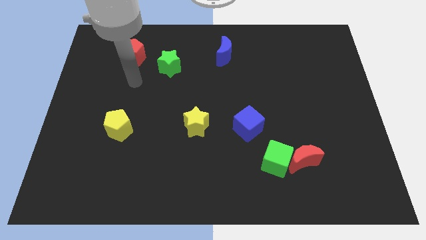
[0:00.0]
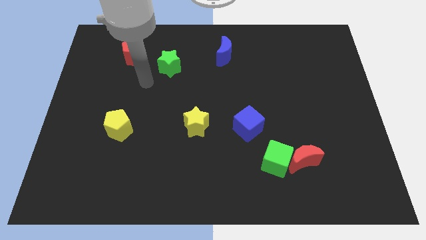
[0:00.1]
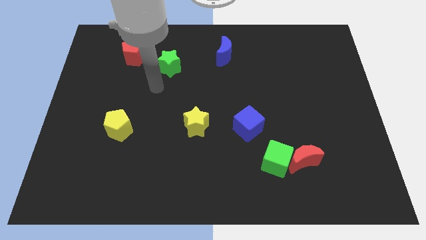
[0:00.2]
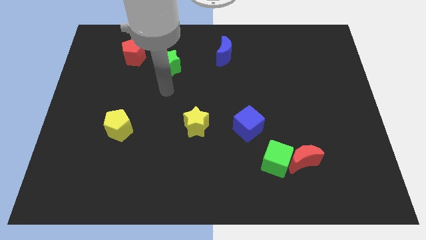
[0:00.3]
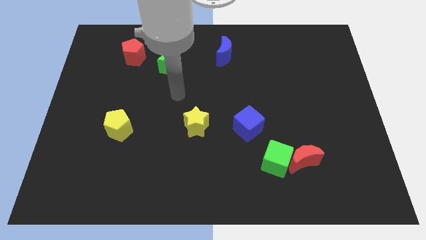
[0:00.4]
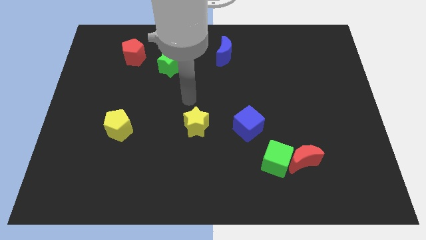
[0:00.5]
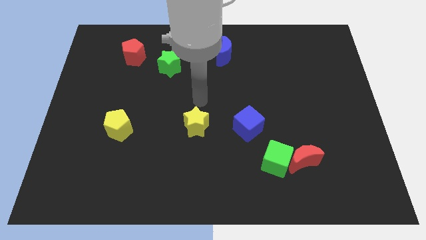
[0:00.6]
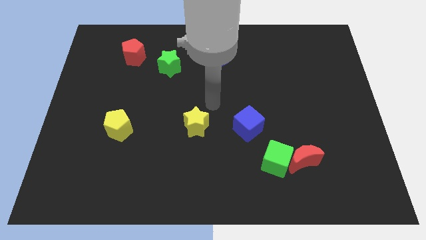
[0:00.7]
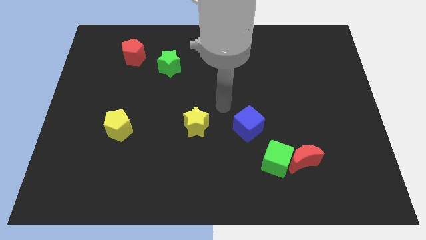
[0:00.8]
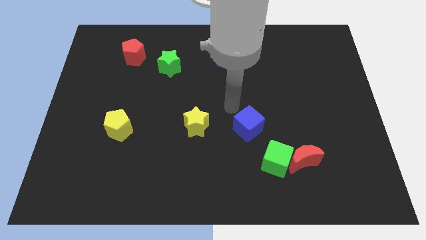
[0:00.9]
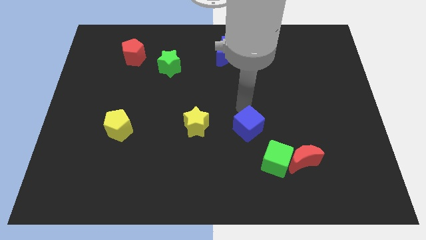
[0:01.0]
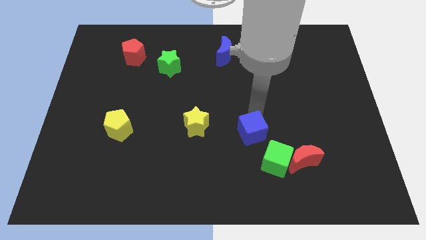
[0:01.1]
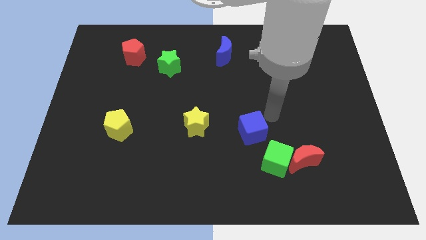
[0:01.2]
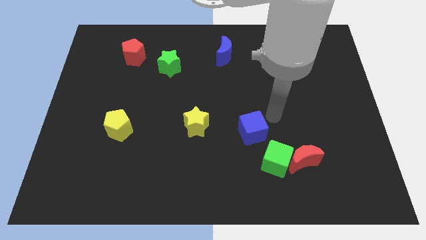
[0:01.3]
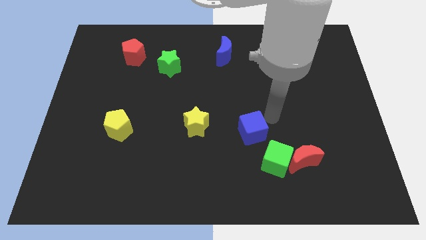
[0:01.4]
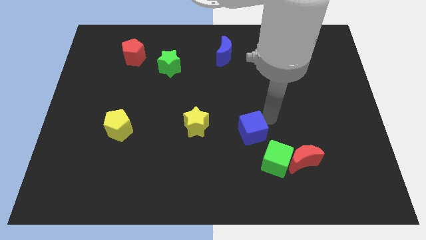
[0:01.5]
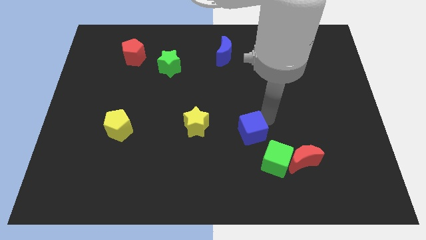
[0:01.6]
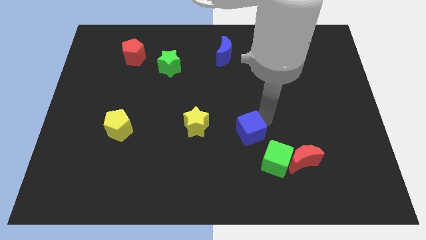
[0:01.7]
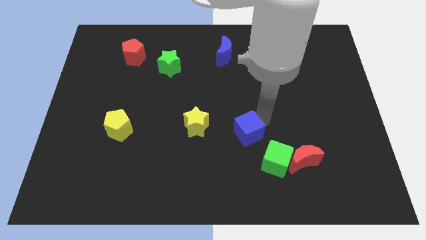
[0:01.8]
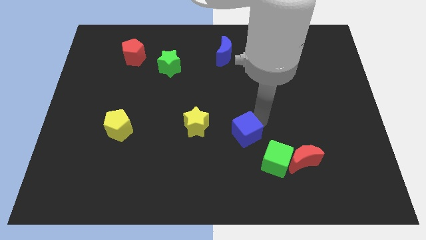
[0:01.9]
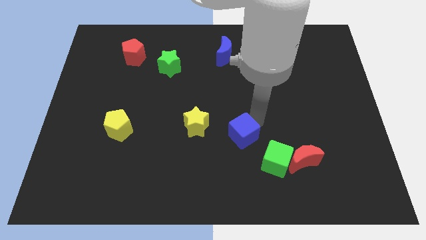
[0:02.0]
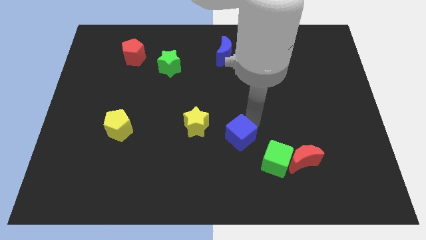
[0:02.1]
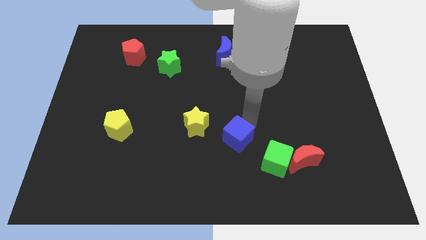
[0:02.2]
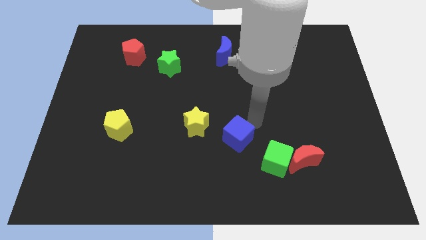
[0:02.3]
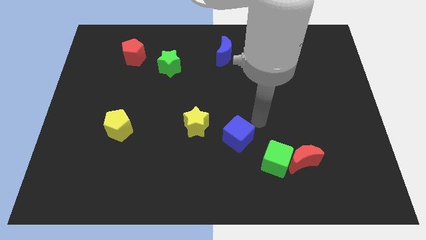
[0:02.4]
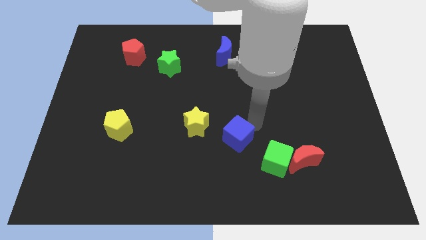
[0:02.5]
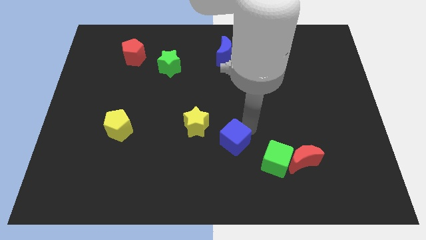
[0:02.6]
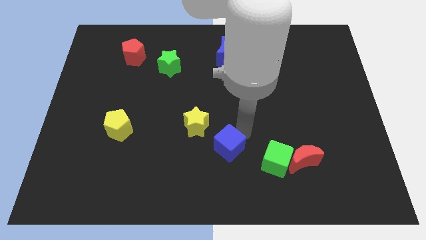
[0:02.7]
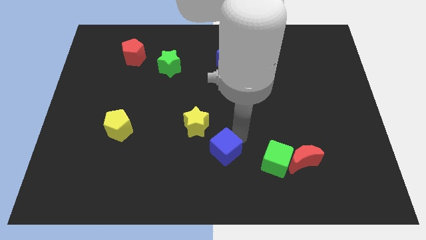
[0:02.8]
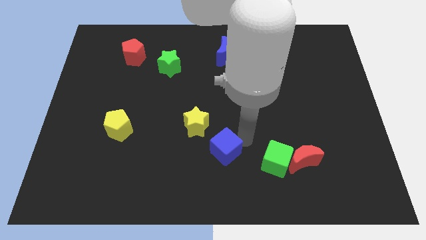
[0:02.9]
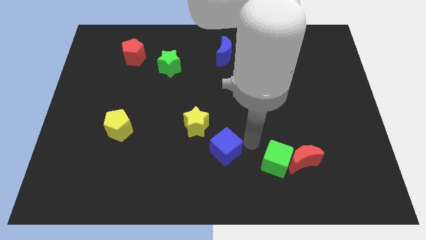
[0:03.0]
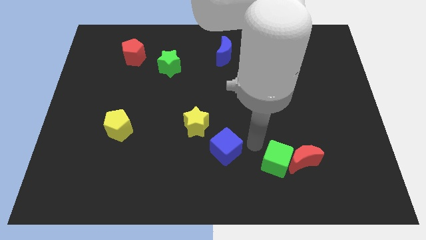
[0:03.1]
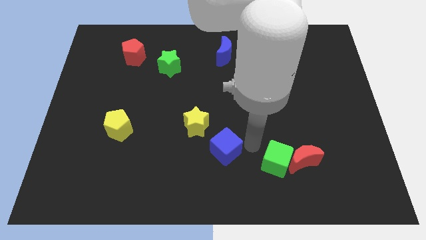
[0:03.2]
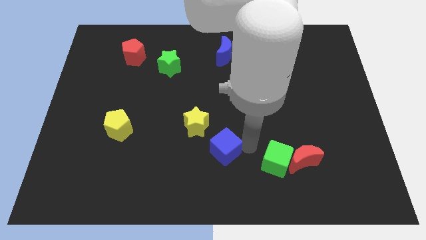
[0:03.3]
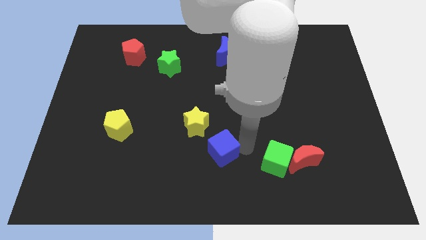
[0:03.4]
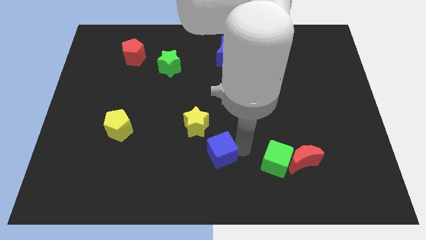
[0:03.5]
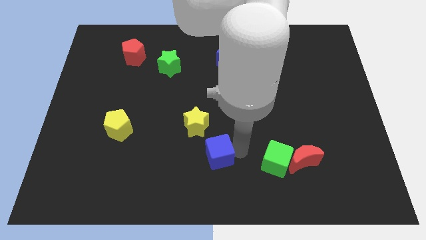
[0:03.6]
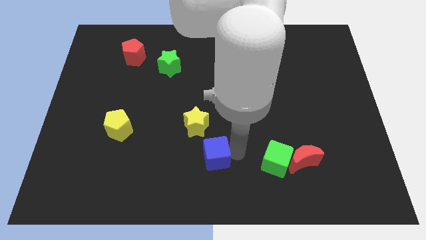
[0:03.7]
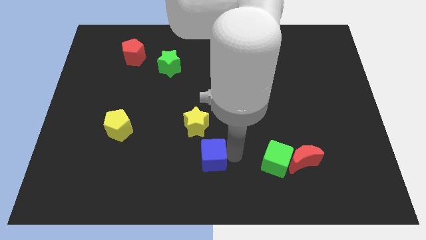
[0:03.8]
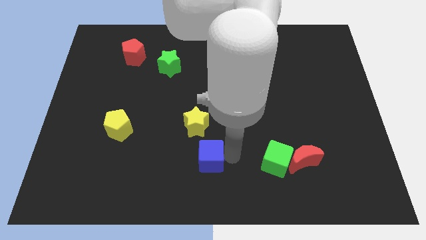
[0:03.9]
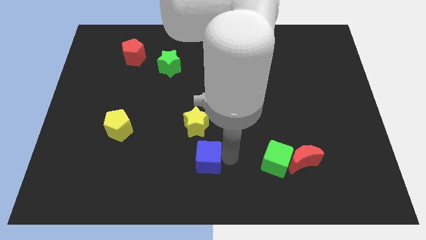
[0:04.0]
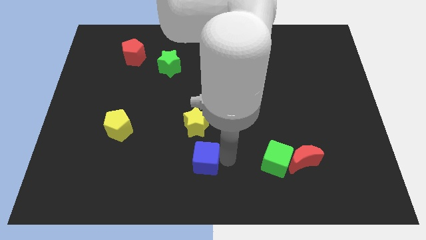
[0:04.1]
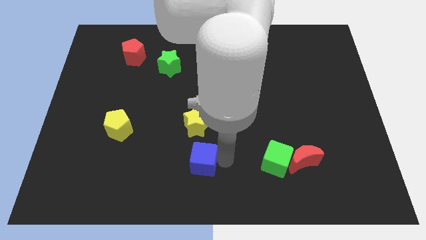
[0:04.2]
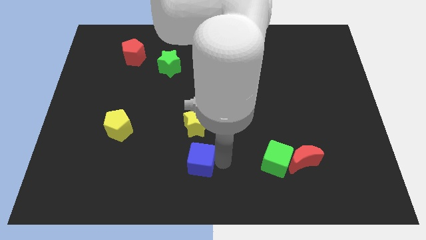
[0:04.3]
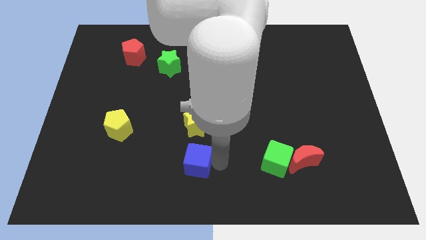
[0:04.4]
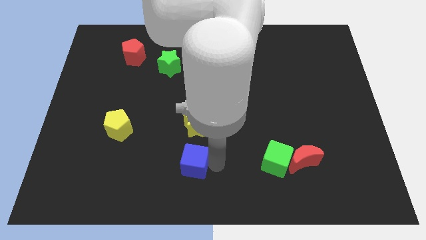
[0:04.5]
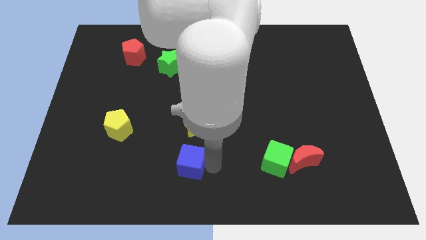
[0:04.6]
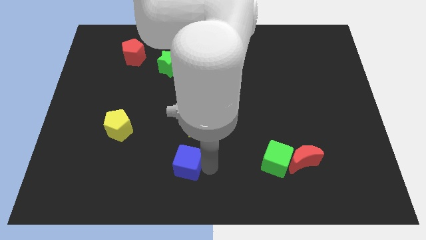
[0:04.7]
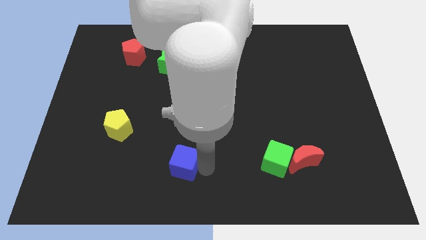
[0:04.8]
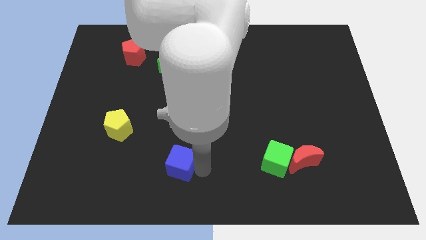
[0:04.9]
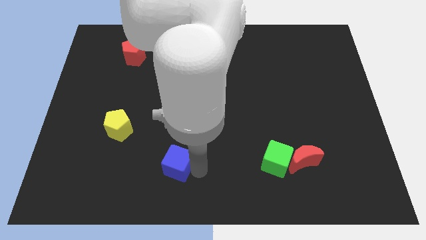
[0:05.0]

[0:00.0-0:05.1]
move the blue cube to the bottom left of the yellow star

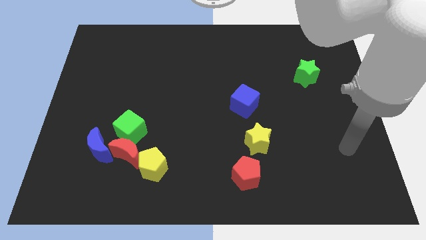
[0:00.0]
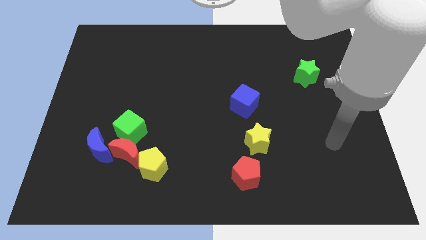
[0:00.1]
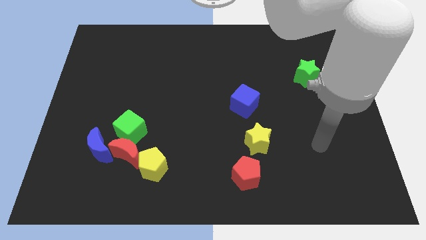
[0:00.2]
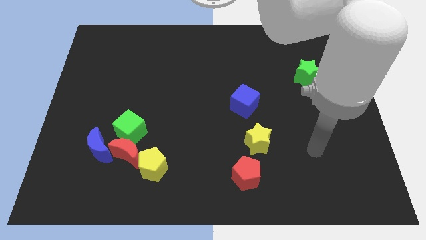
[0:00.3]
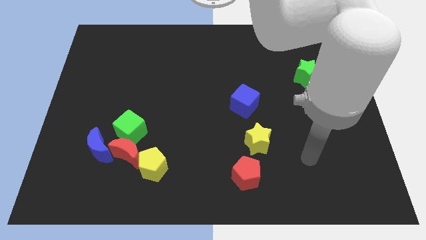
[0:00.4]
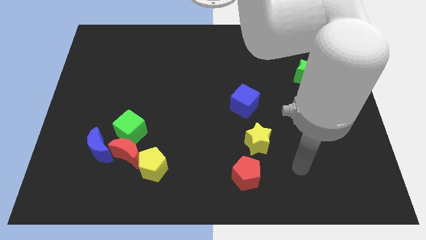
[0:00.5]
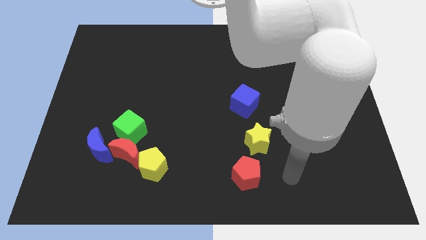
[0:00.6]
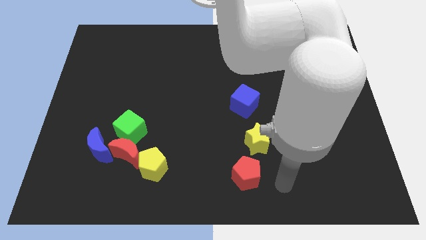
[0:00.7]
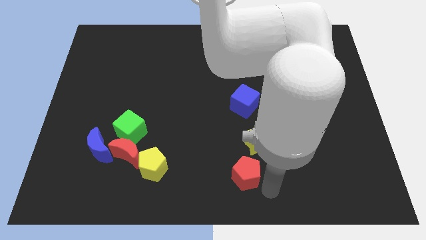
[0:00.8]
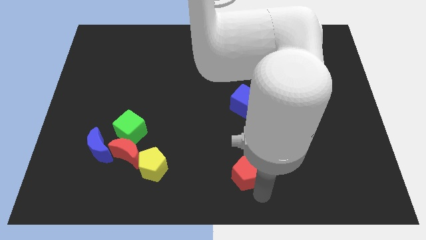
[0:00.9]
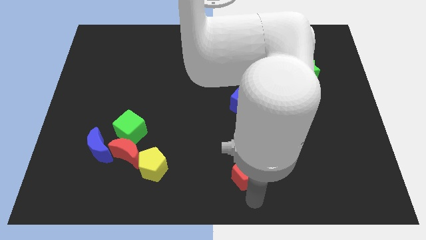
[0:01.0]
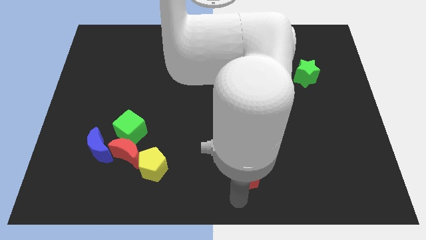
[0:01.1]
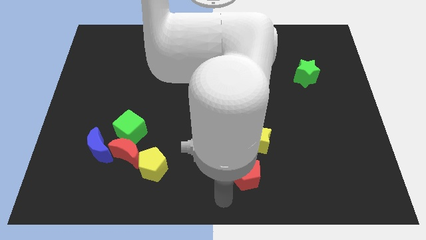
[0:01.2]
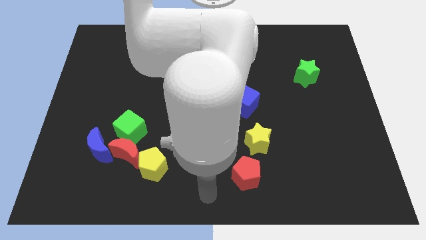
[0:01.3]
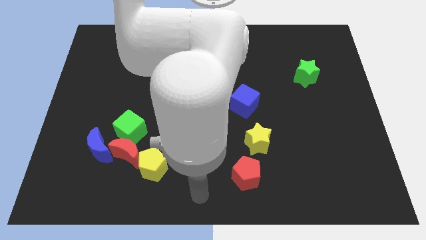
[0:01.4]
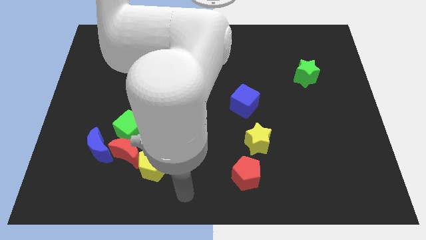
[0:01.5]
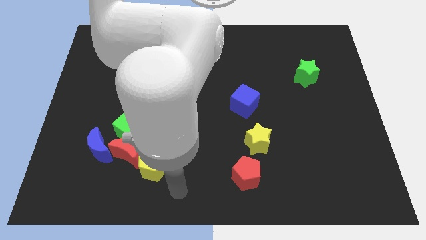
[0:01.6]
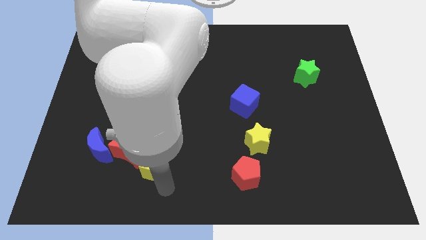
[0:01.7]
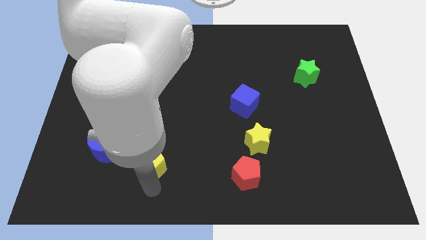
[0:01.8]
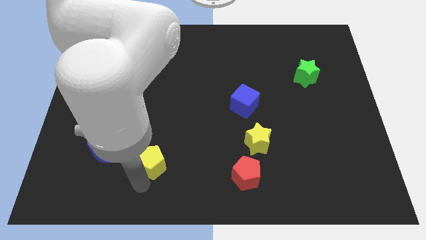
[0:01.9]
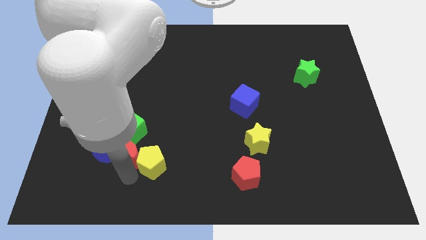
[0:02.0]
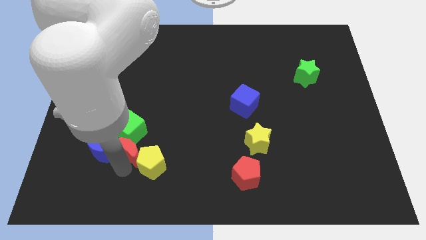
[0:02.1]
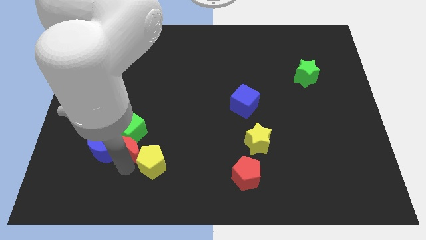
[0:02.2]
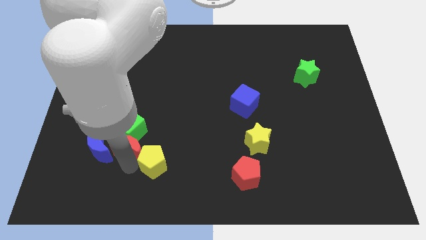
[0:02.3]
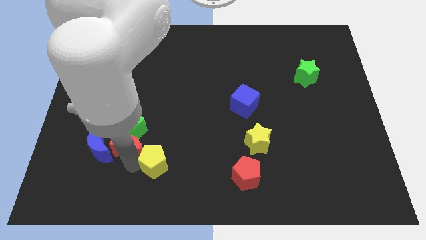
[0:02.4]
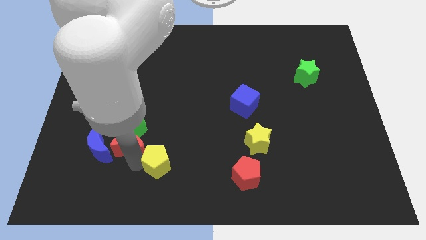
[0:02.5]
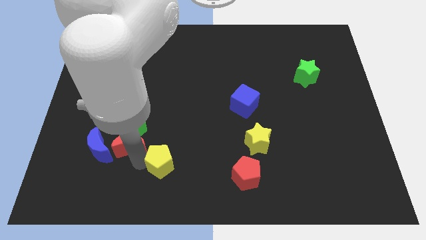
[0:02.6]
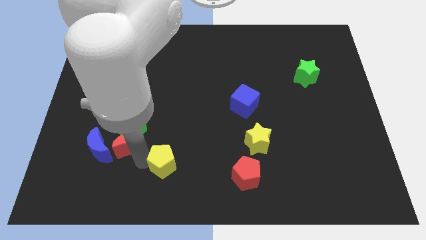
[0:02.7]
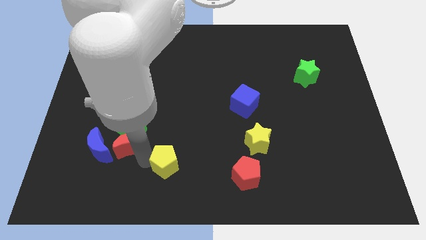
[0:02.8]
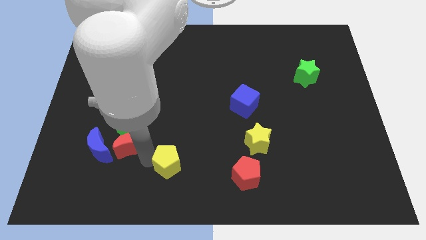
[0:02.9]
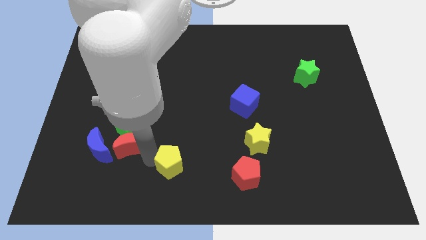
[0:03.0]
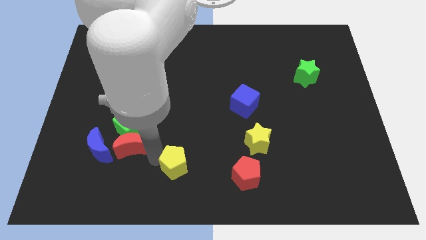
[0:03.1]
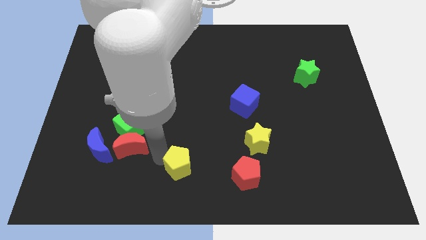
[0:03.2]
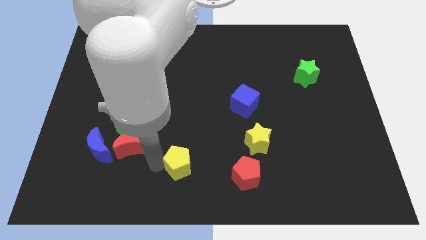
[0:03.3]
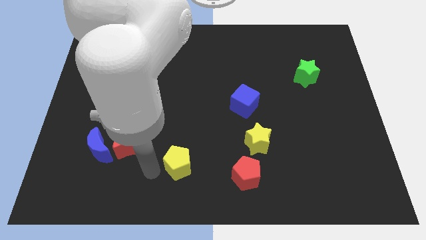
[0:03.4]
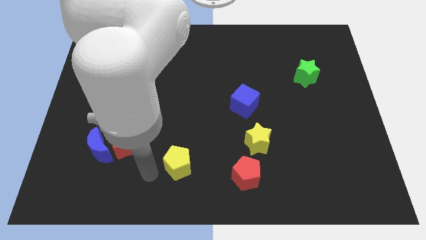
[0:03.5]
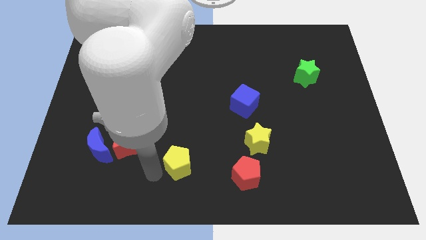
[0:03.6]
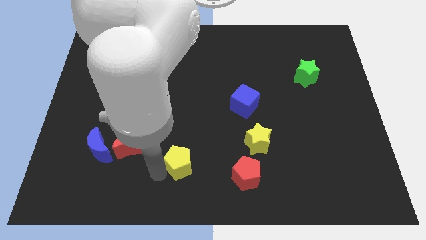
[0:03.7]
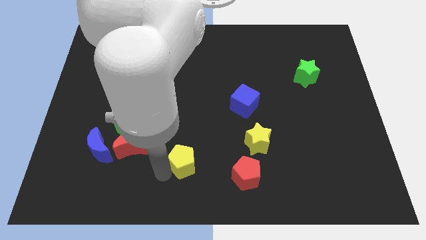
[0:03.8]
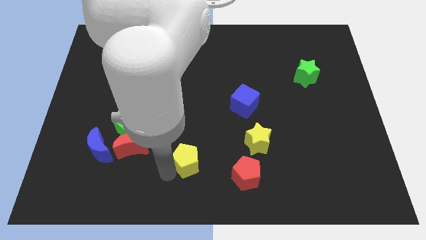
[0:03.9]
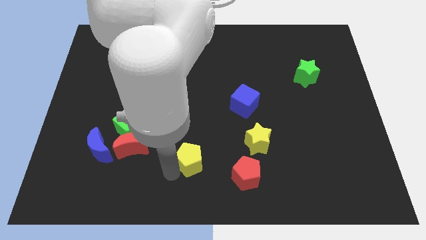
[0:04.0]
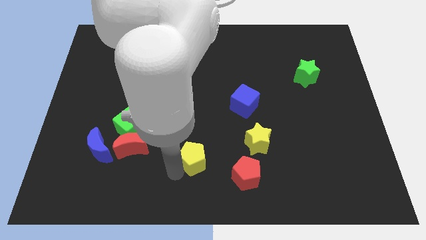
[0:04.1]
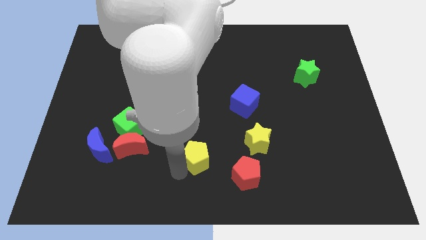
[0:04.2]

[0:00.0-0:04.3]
slide the yellow pentagon to the top left side of the red pentagon
